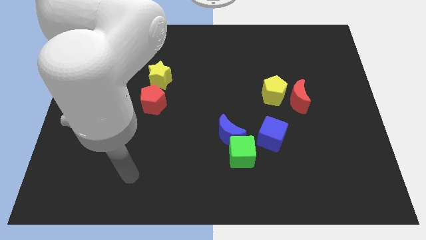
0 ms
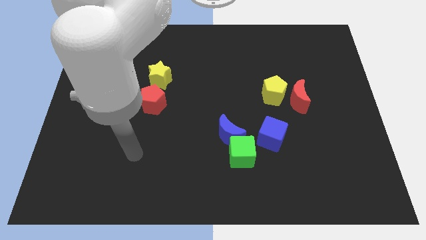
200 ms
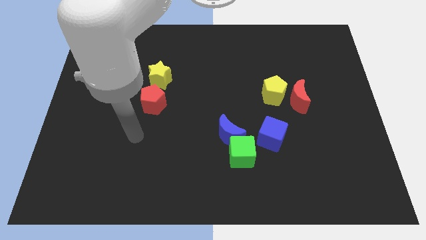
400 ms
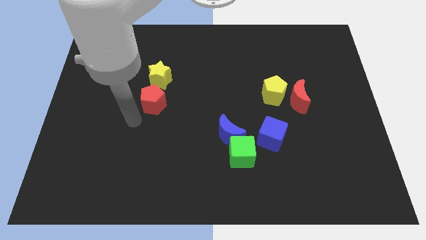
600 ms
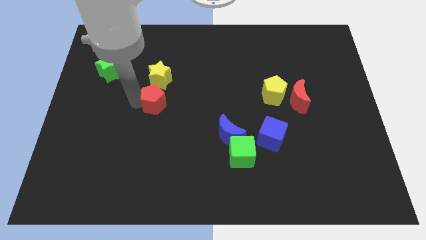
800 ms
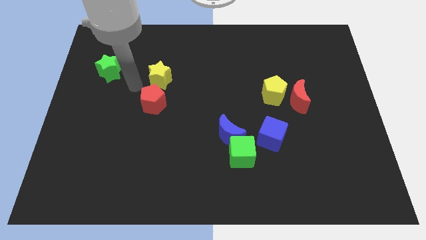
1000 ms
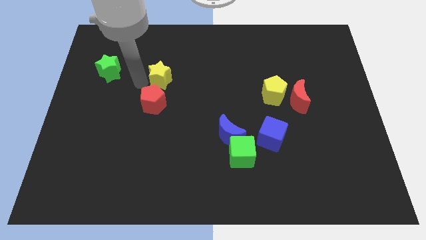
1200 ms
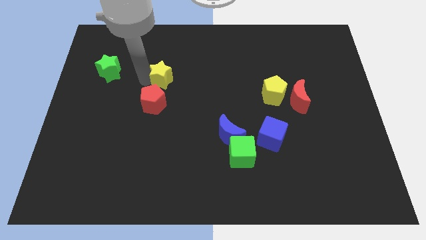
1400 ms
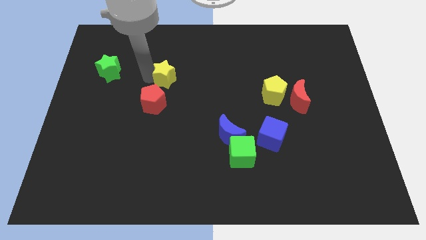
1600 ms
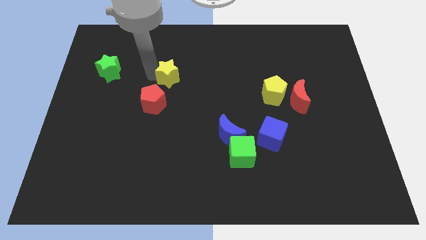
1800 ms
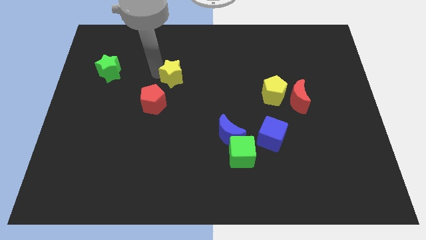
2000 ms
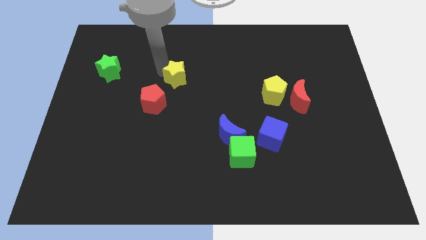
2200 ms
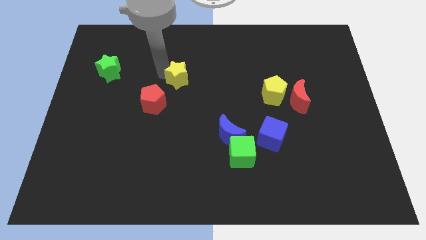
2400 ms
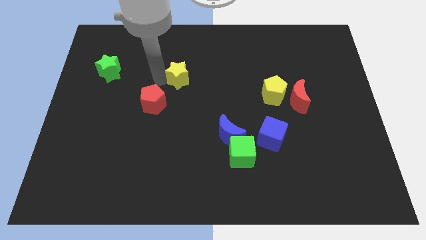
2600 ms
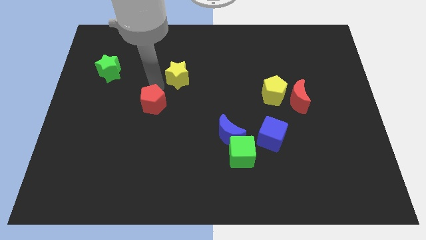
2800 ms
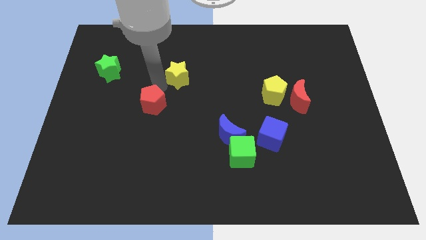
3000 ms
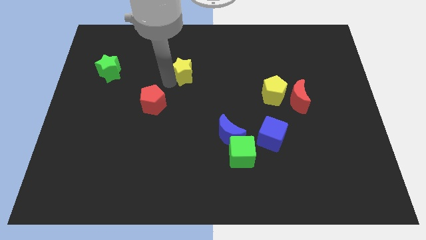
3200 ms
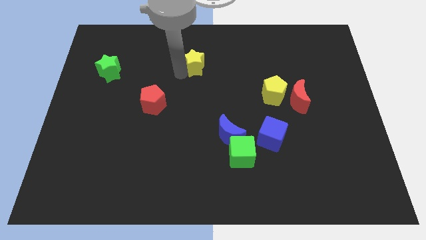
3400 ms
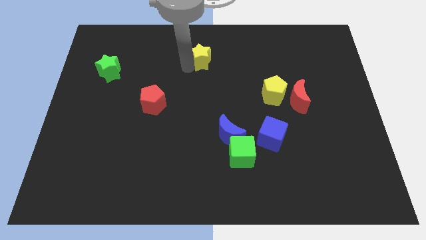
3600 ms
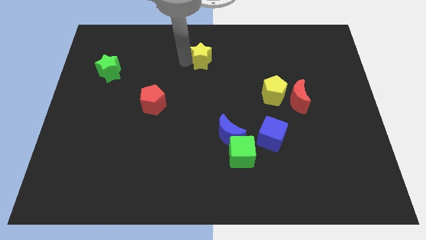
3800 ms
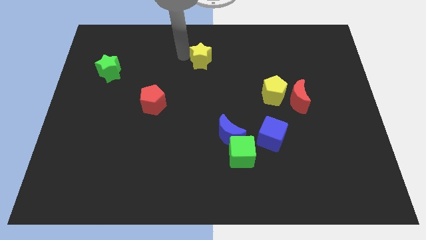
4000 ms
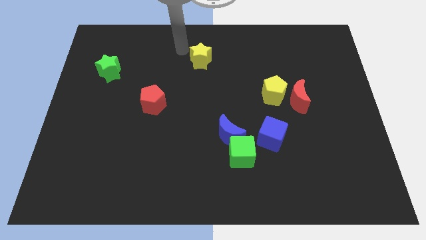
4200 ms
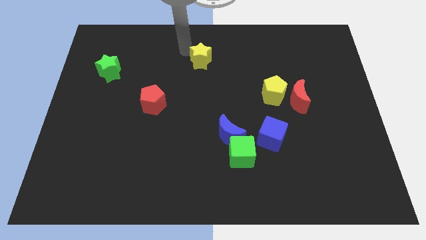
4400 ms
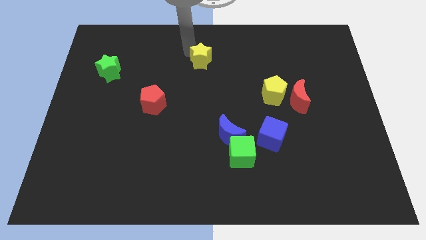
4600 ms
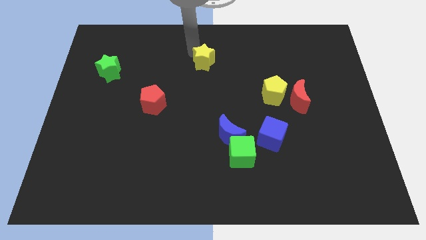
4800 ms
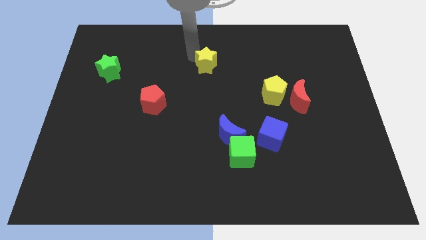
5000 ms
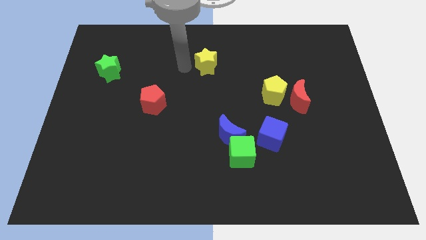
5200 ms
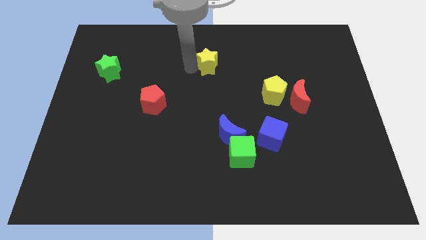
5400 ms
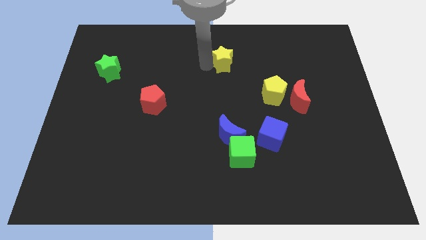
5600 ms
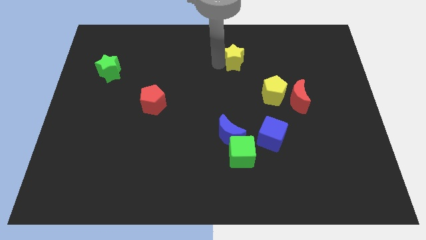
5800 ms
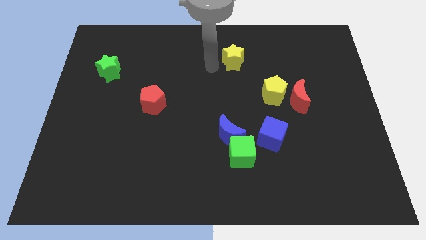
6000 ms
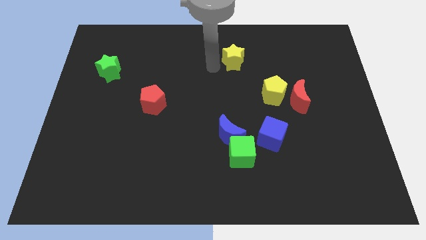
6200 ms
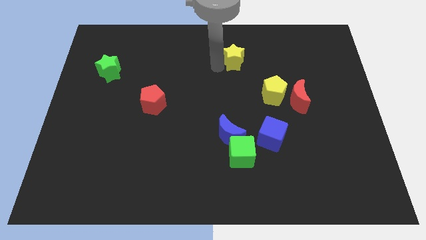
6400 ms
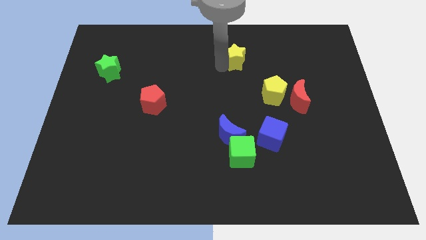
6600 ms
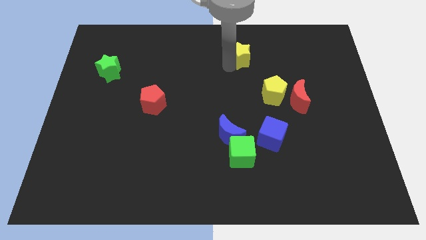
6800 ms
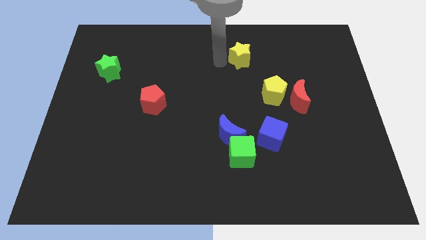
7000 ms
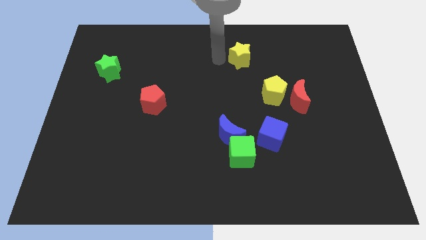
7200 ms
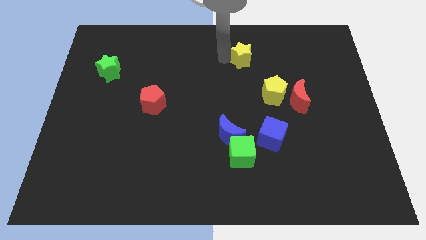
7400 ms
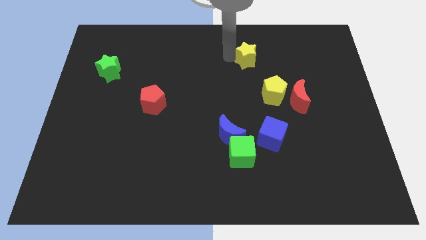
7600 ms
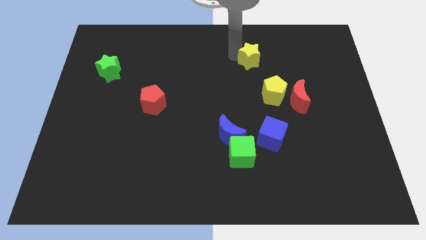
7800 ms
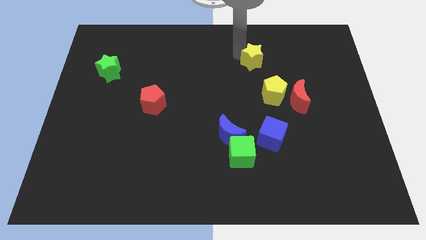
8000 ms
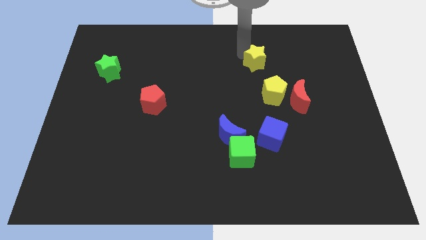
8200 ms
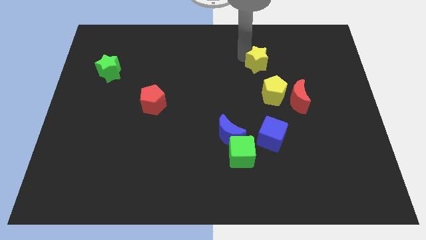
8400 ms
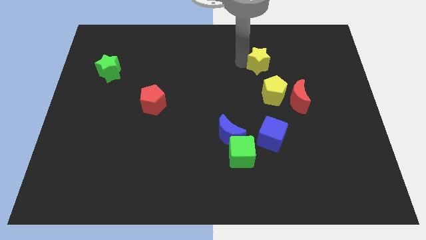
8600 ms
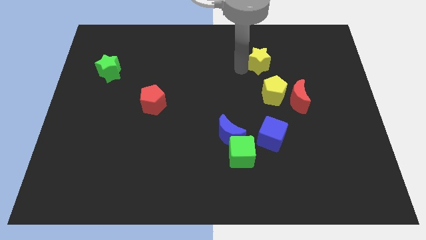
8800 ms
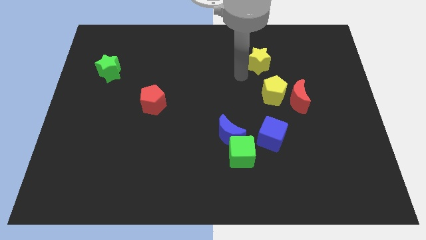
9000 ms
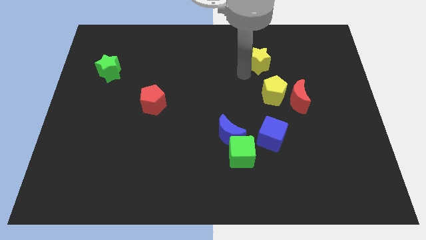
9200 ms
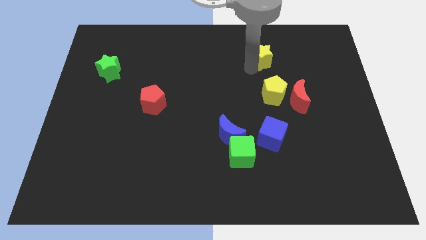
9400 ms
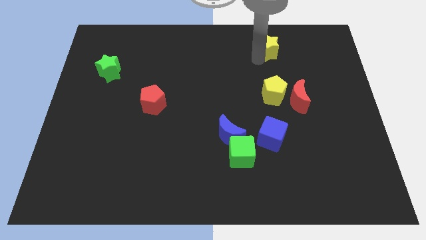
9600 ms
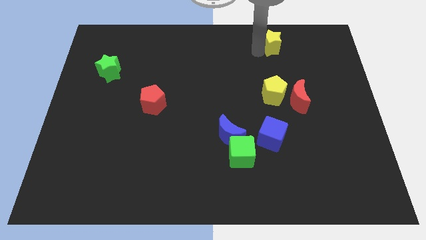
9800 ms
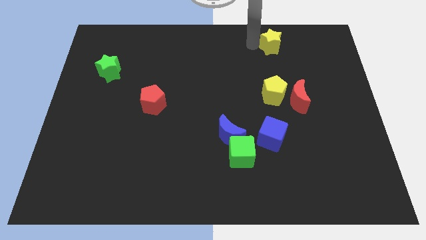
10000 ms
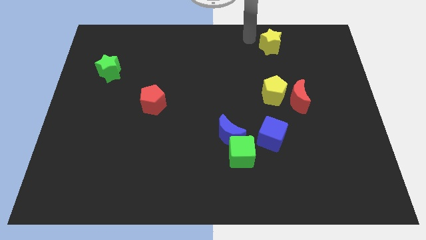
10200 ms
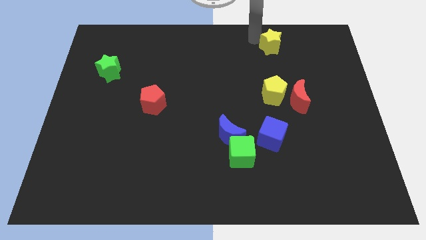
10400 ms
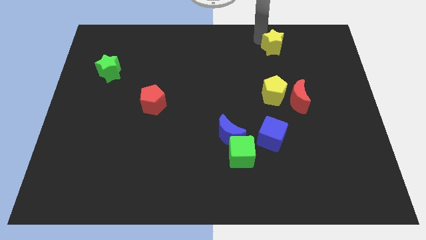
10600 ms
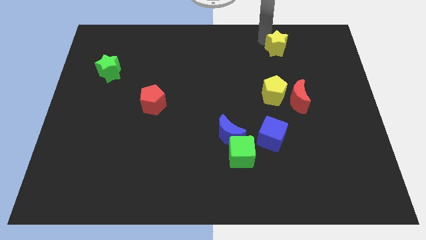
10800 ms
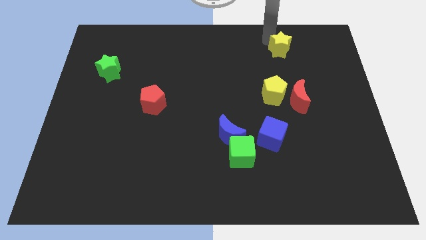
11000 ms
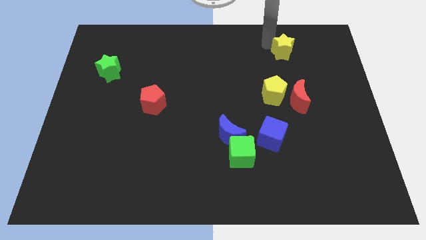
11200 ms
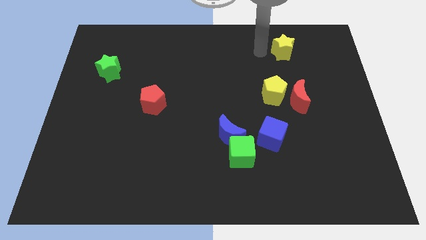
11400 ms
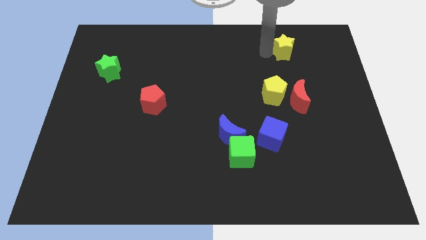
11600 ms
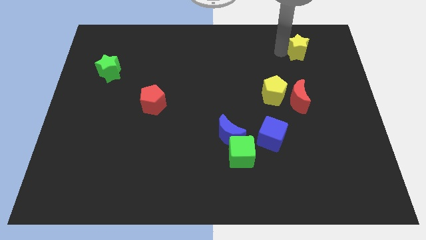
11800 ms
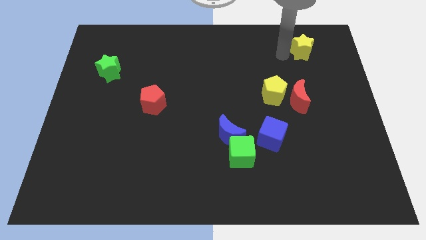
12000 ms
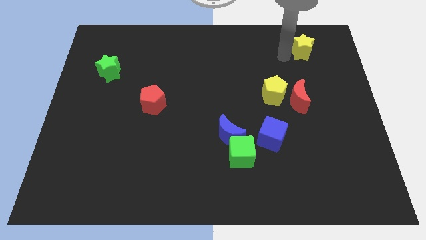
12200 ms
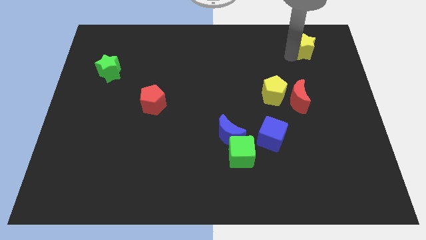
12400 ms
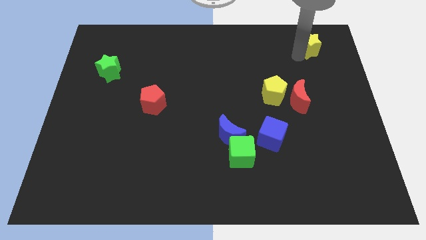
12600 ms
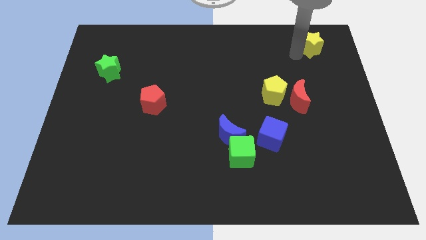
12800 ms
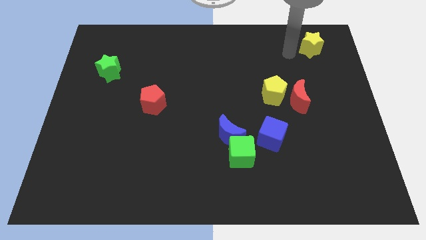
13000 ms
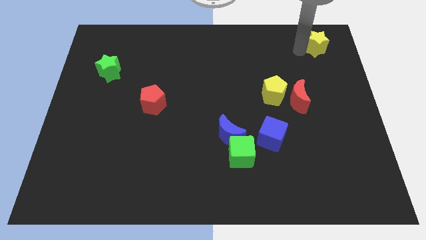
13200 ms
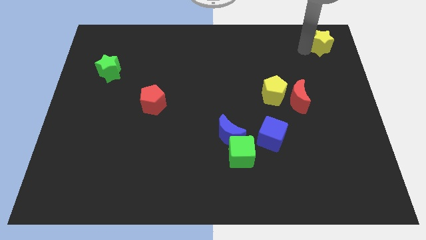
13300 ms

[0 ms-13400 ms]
put the yellow star to the top right
